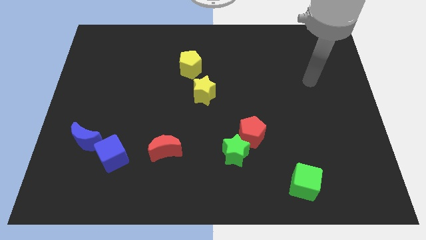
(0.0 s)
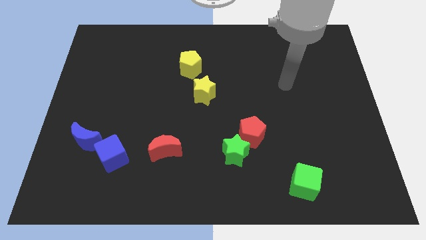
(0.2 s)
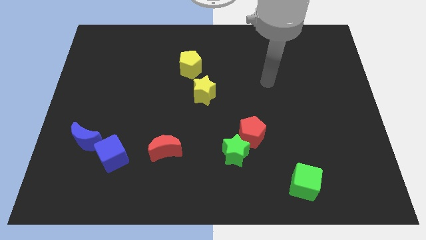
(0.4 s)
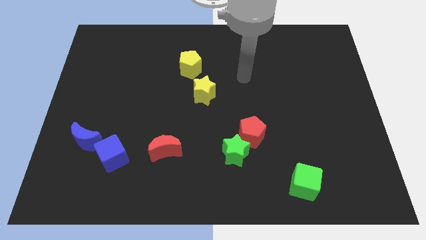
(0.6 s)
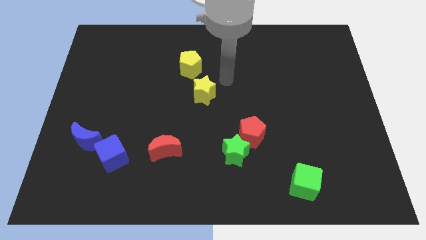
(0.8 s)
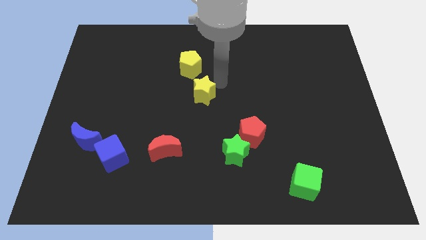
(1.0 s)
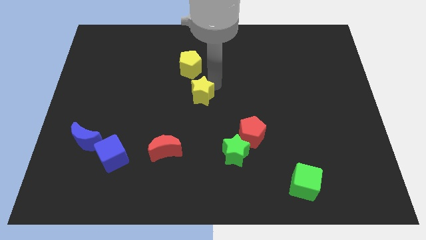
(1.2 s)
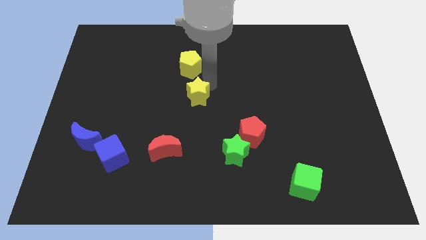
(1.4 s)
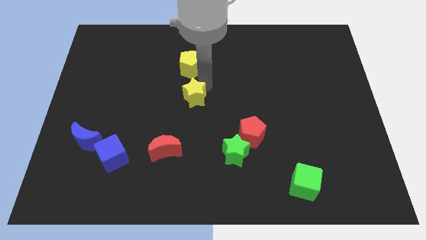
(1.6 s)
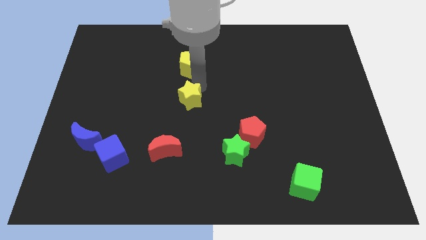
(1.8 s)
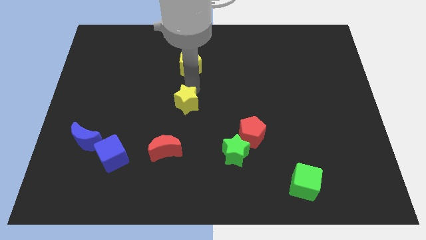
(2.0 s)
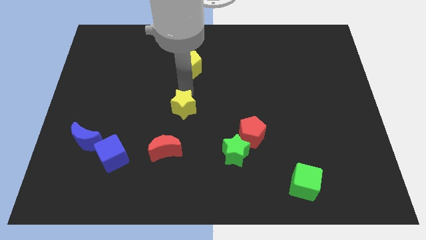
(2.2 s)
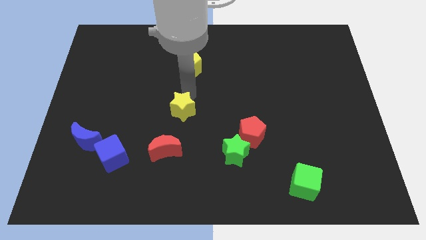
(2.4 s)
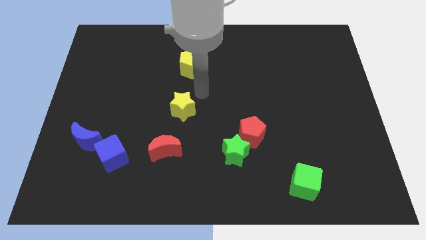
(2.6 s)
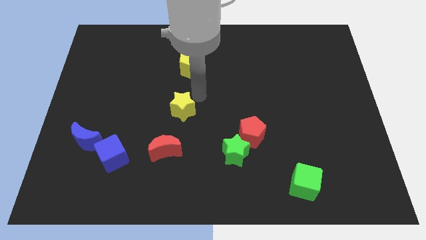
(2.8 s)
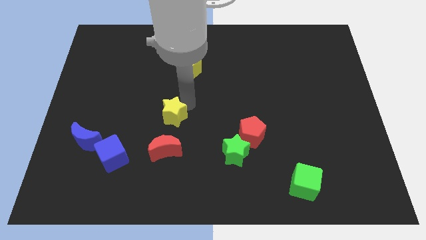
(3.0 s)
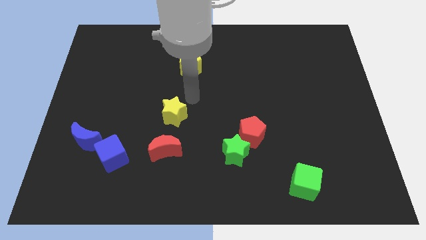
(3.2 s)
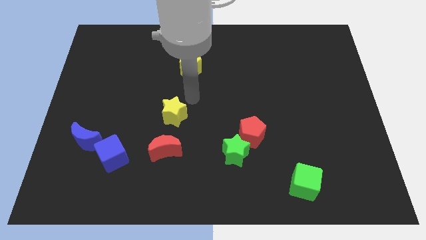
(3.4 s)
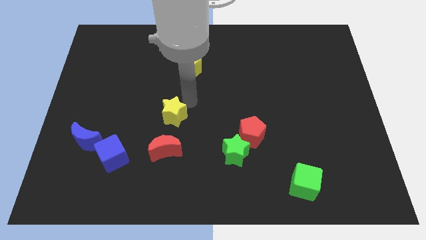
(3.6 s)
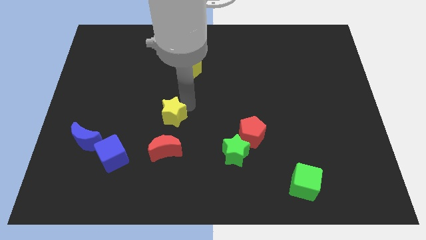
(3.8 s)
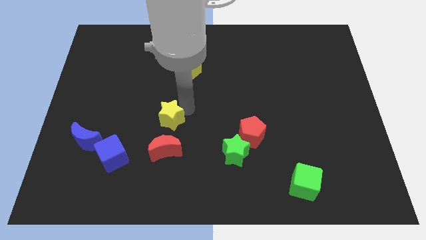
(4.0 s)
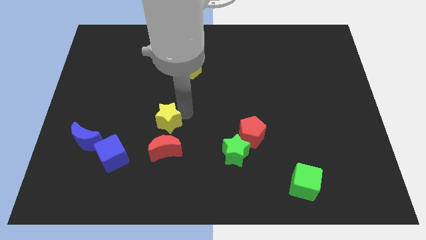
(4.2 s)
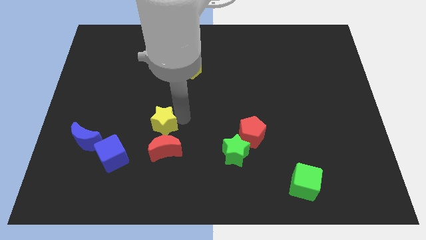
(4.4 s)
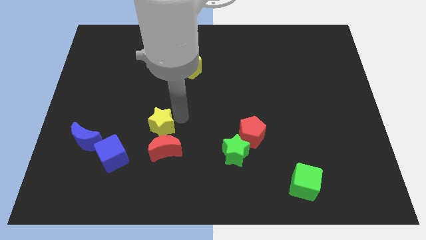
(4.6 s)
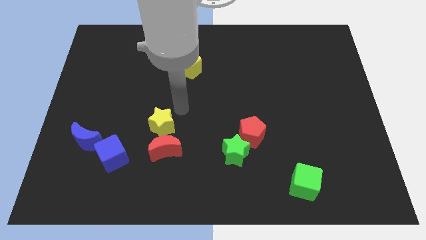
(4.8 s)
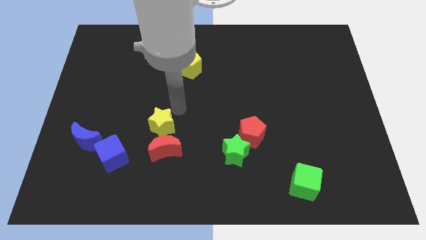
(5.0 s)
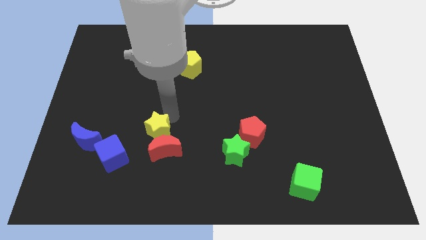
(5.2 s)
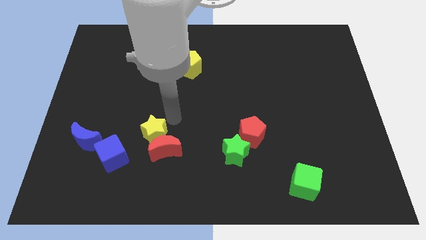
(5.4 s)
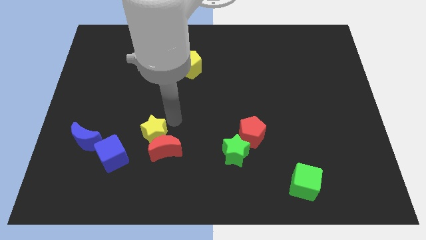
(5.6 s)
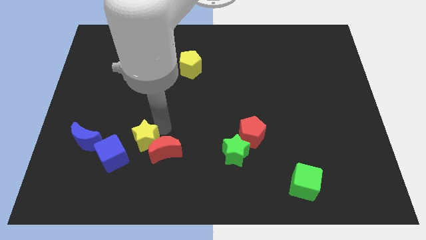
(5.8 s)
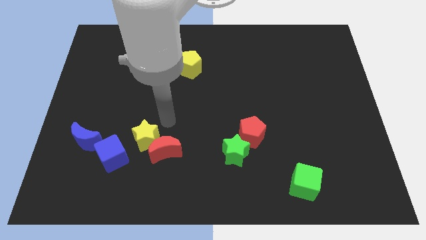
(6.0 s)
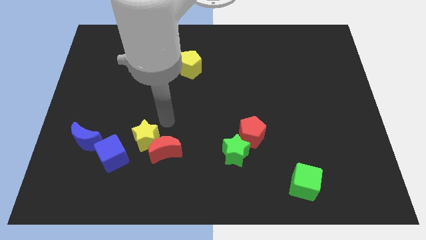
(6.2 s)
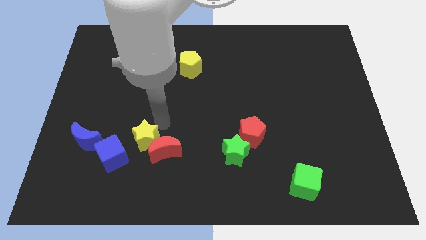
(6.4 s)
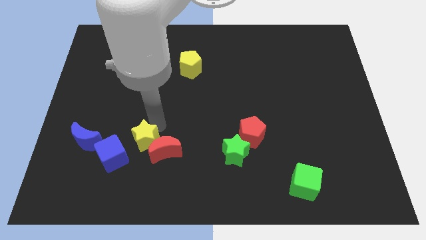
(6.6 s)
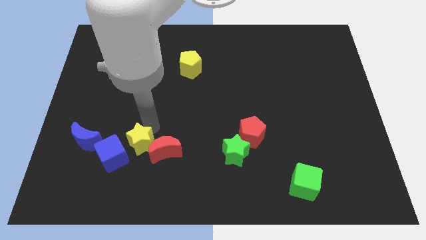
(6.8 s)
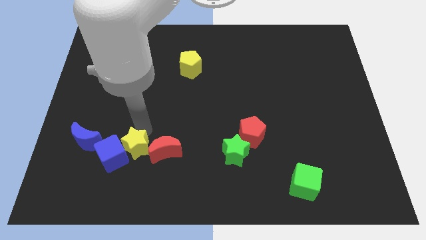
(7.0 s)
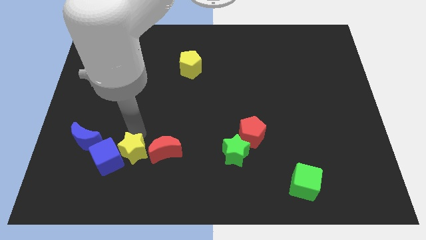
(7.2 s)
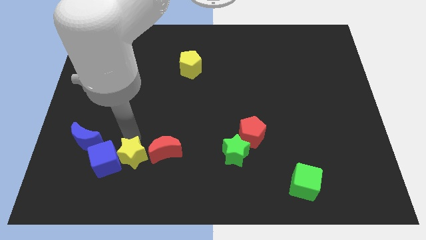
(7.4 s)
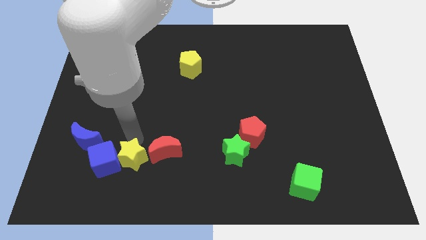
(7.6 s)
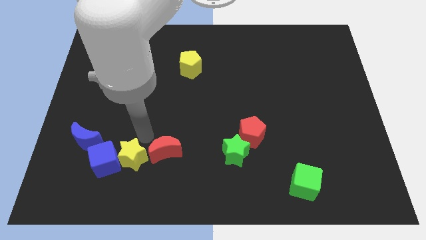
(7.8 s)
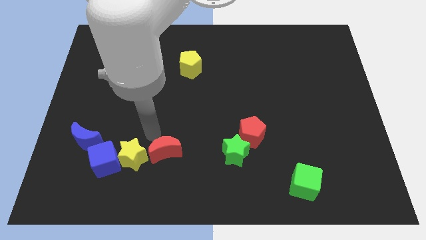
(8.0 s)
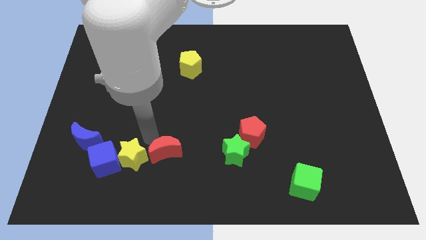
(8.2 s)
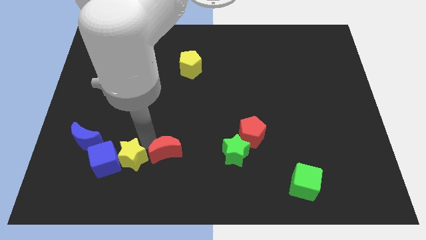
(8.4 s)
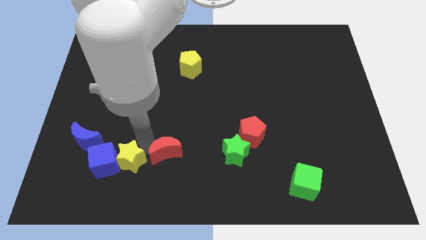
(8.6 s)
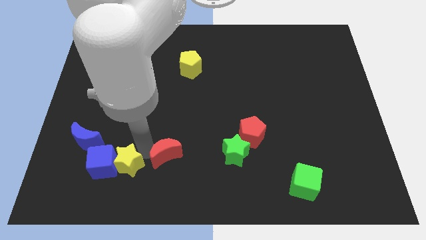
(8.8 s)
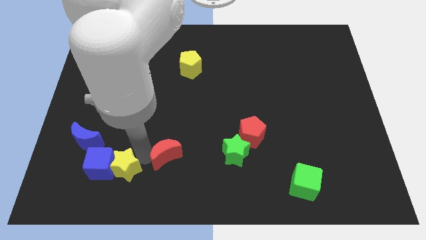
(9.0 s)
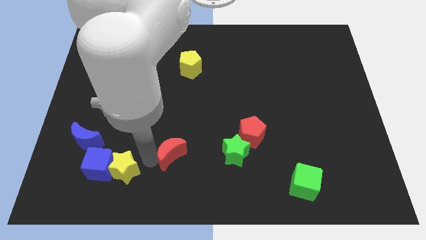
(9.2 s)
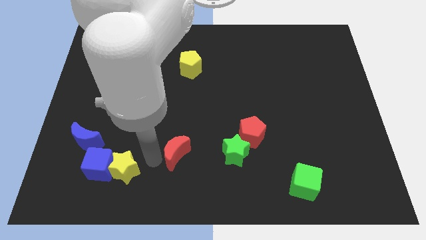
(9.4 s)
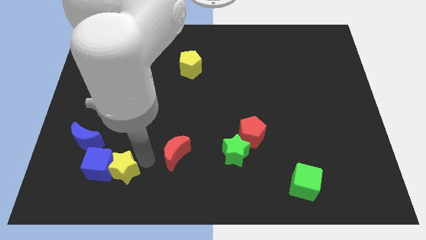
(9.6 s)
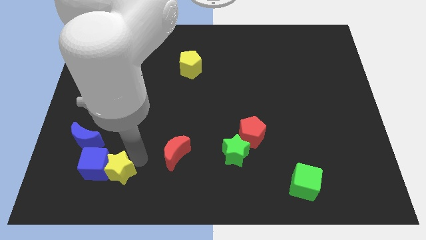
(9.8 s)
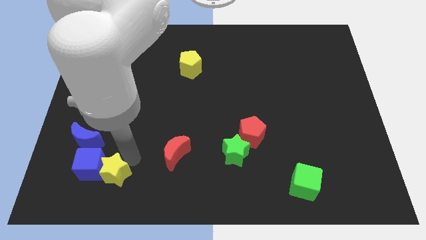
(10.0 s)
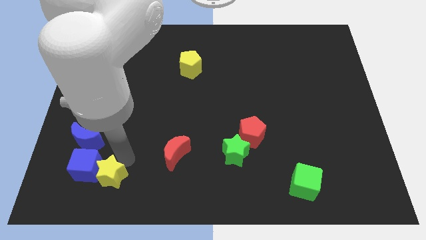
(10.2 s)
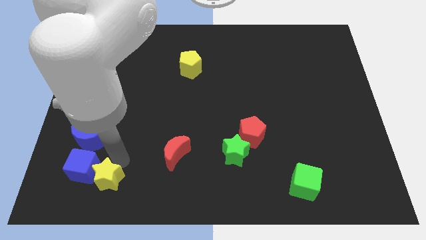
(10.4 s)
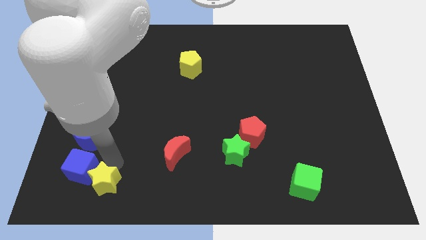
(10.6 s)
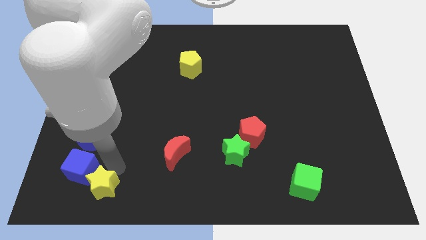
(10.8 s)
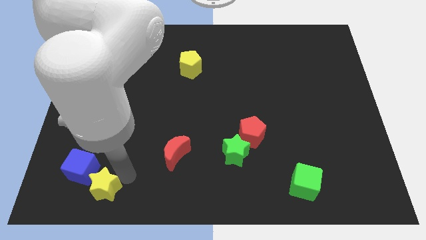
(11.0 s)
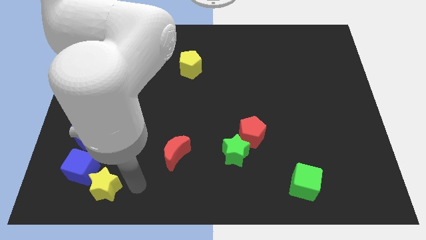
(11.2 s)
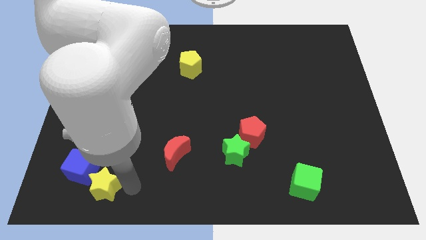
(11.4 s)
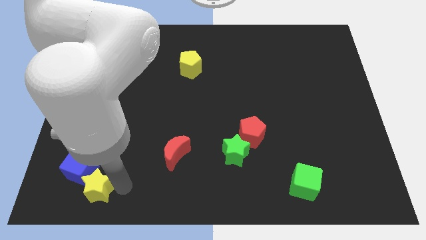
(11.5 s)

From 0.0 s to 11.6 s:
slide the yellow star below the blue moon

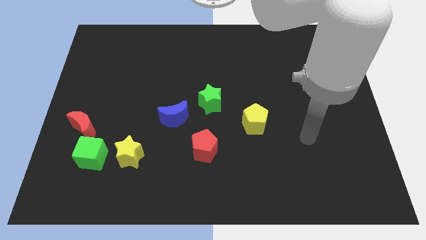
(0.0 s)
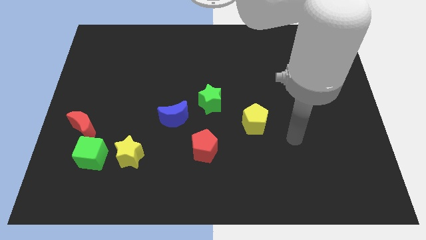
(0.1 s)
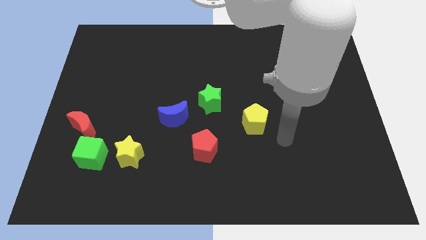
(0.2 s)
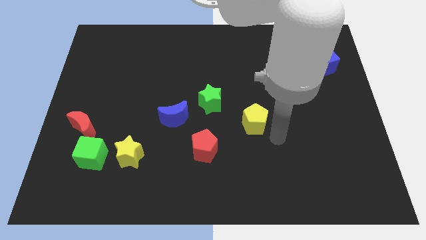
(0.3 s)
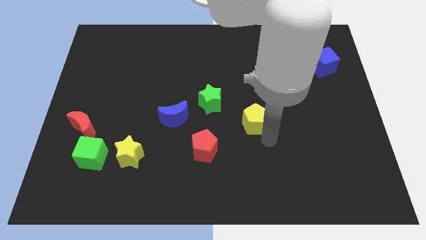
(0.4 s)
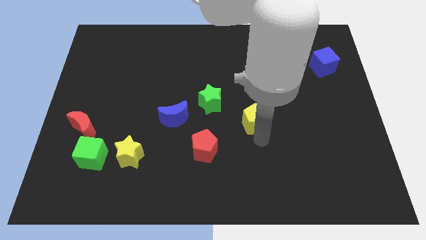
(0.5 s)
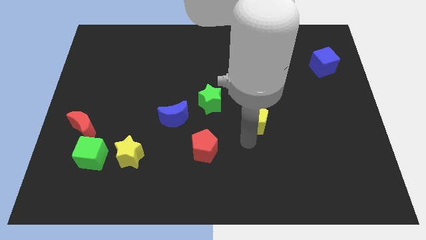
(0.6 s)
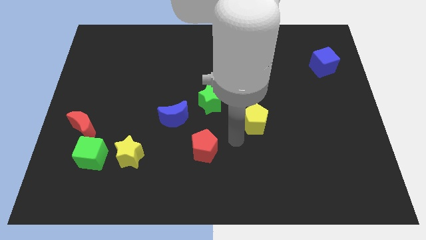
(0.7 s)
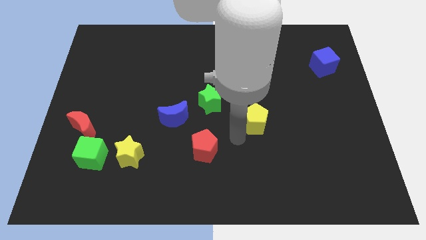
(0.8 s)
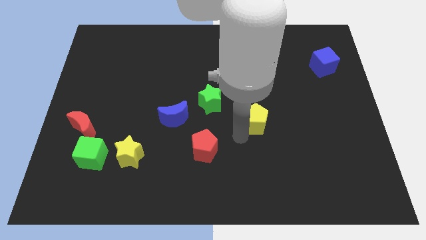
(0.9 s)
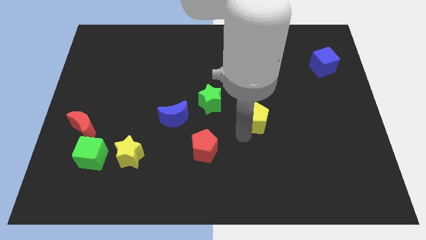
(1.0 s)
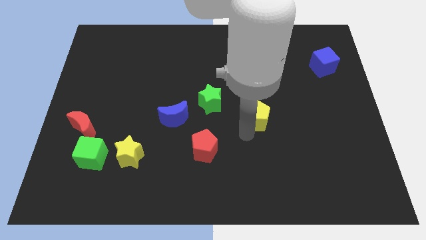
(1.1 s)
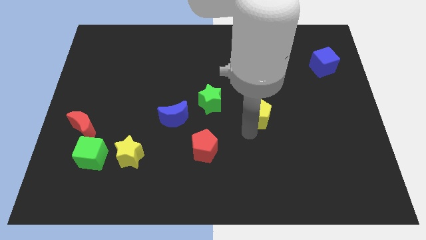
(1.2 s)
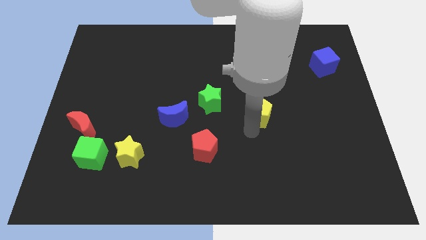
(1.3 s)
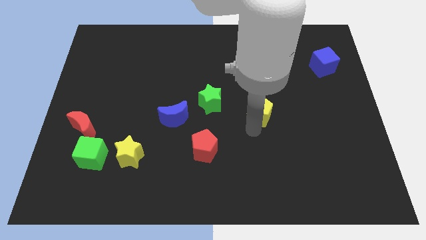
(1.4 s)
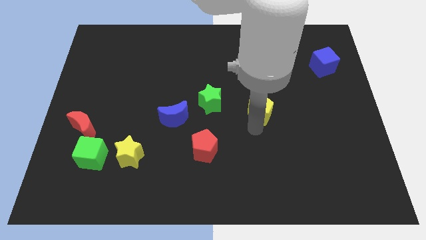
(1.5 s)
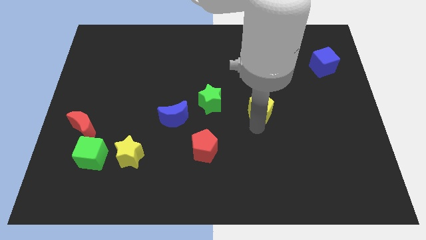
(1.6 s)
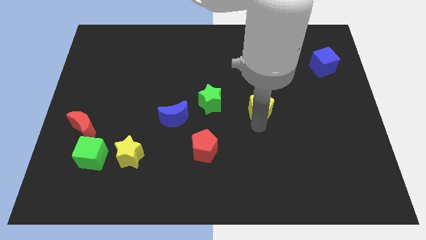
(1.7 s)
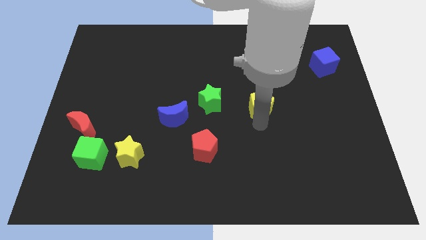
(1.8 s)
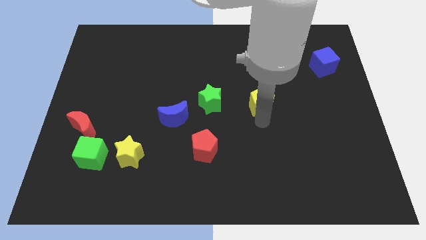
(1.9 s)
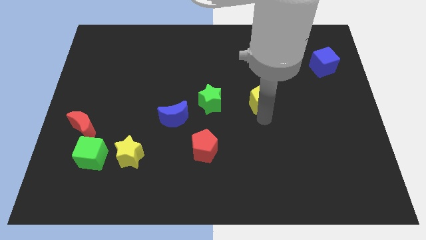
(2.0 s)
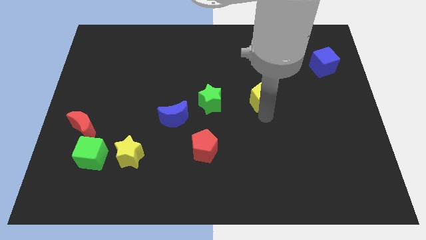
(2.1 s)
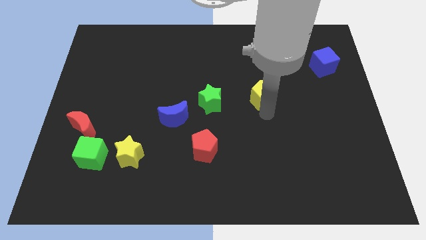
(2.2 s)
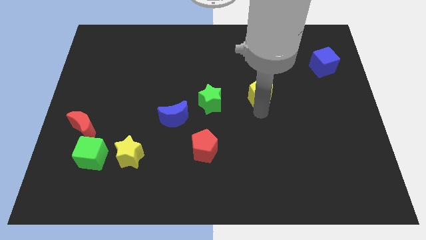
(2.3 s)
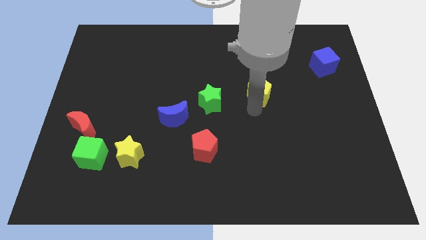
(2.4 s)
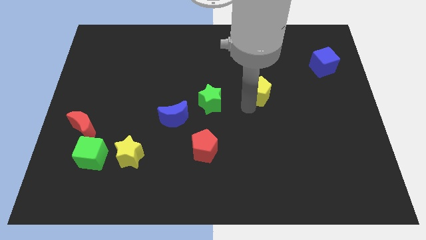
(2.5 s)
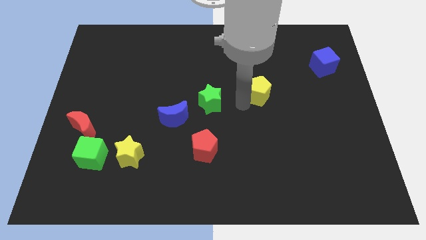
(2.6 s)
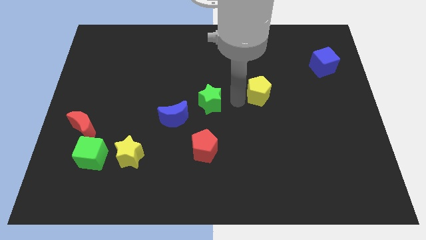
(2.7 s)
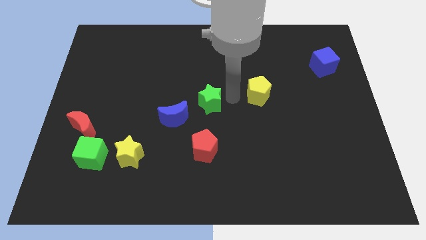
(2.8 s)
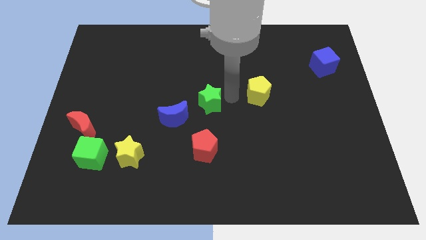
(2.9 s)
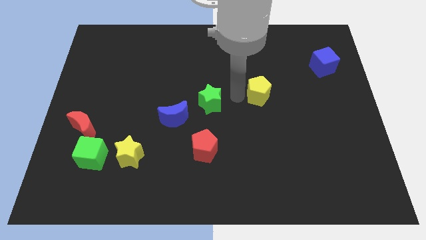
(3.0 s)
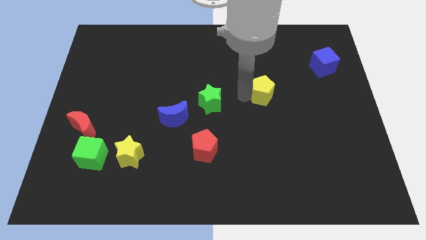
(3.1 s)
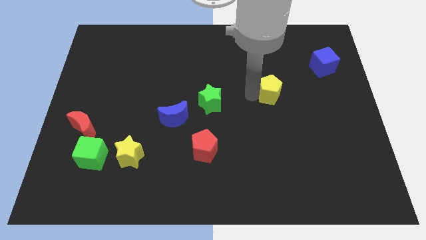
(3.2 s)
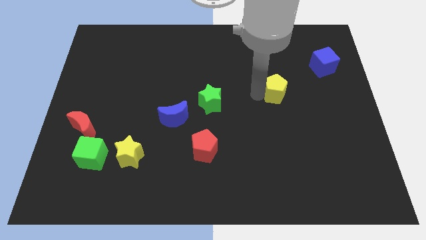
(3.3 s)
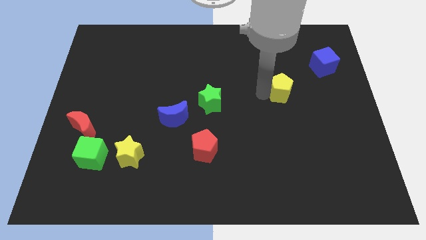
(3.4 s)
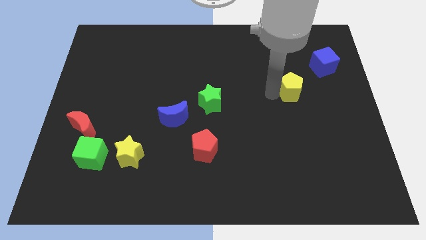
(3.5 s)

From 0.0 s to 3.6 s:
put the yellow pentagon to the bottom left of the blue cube
